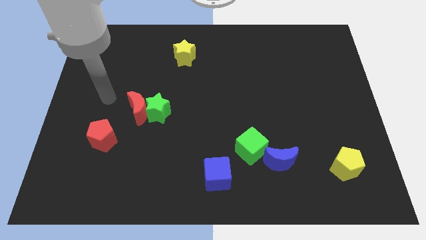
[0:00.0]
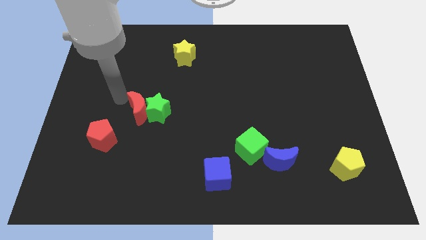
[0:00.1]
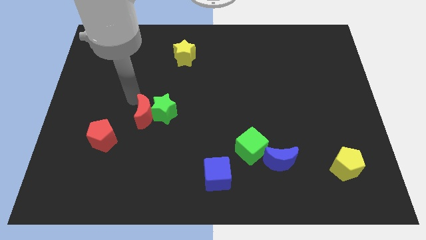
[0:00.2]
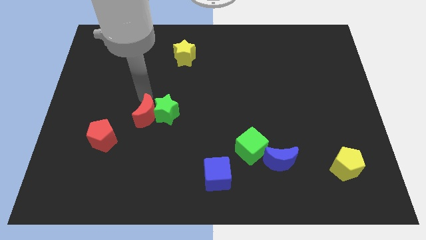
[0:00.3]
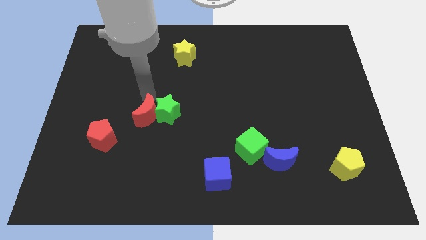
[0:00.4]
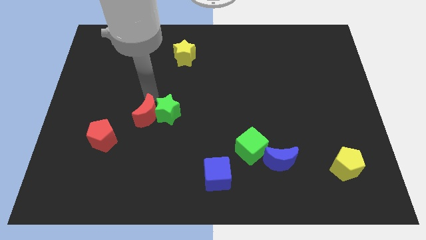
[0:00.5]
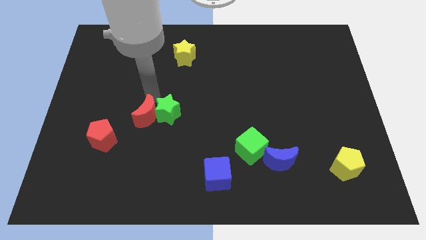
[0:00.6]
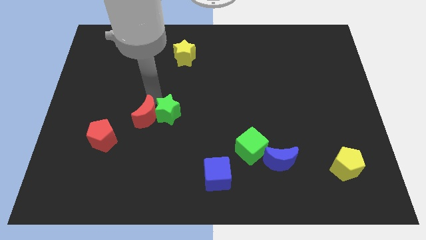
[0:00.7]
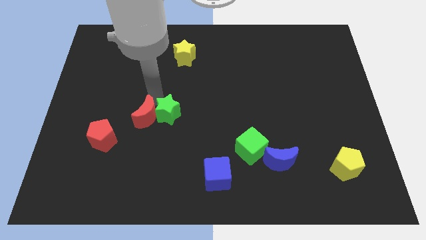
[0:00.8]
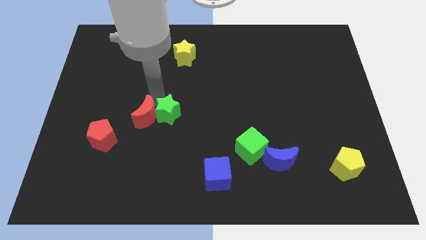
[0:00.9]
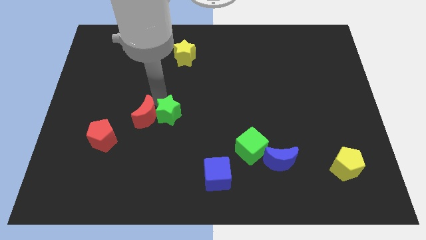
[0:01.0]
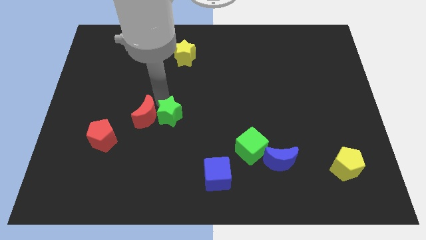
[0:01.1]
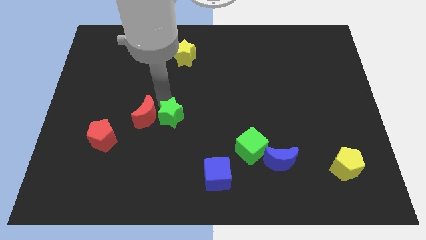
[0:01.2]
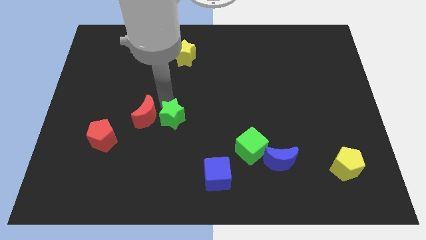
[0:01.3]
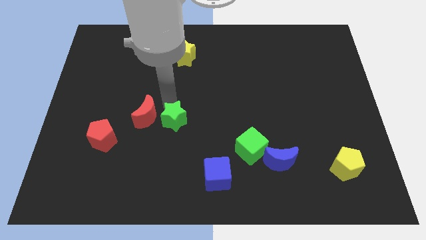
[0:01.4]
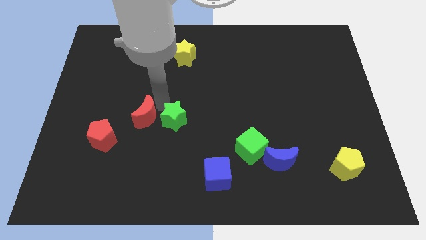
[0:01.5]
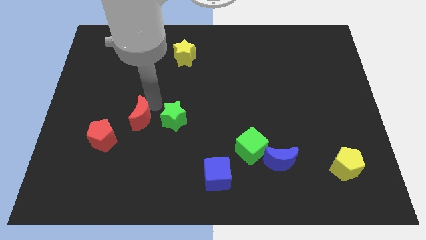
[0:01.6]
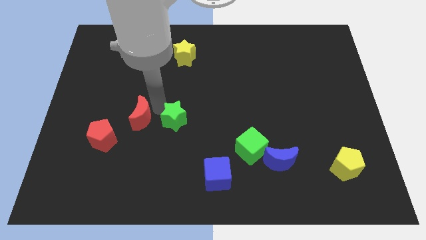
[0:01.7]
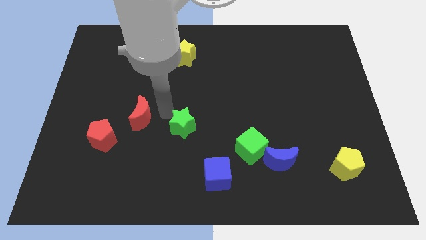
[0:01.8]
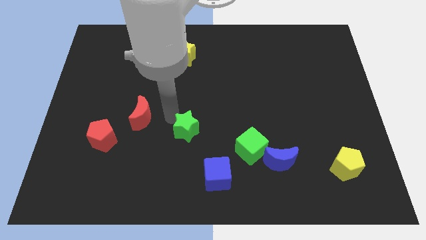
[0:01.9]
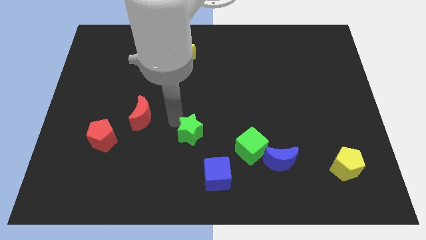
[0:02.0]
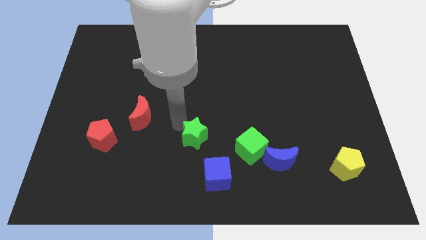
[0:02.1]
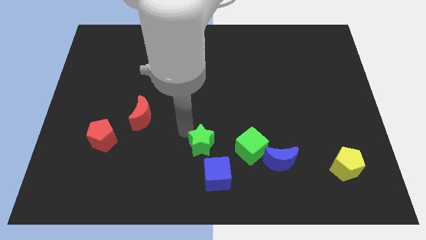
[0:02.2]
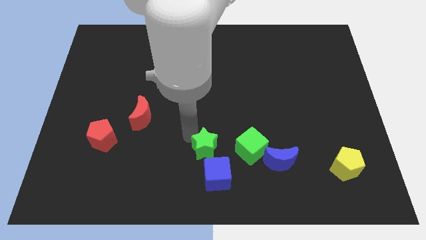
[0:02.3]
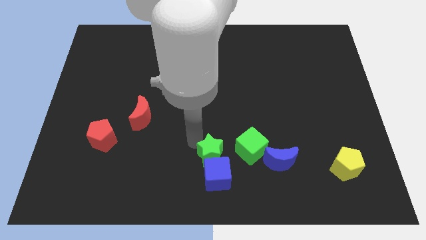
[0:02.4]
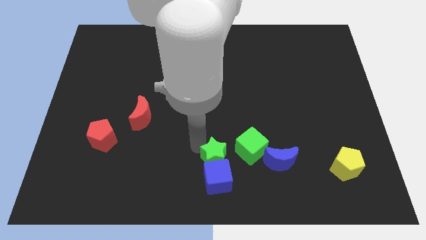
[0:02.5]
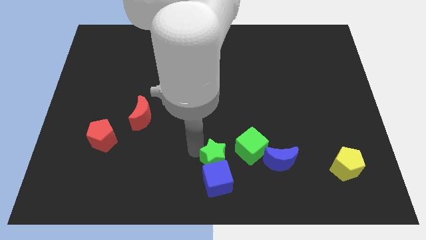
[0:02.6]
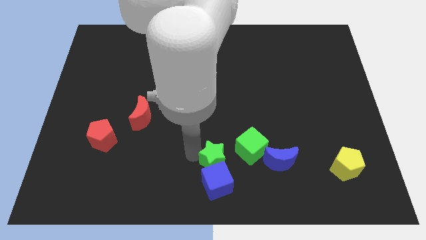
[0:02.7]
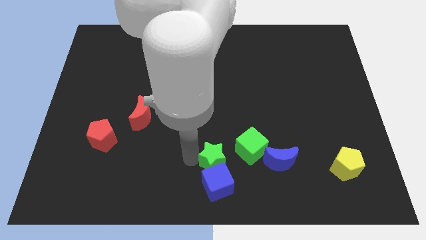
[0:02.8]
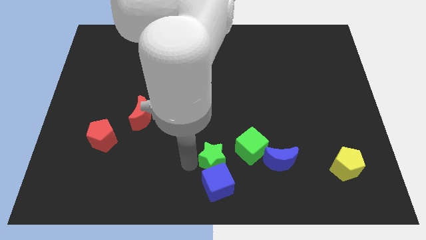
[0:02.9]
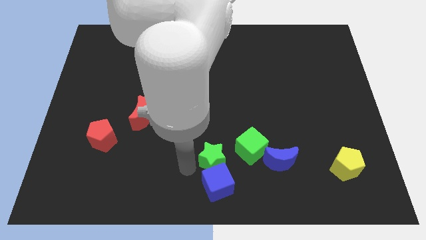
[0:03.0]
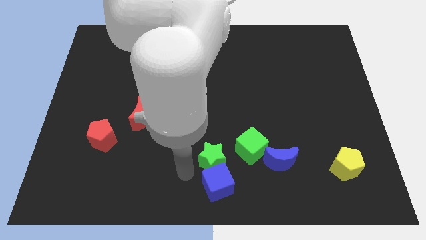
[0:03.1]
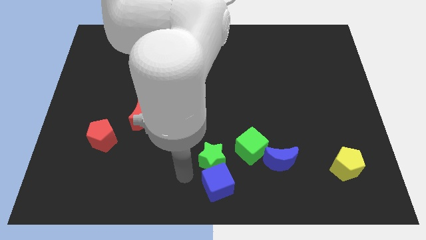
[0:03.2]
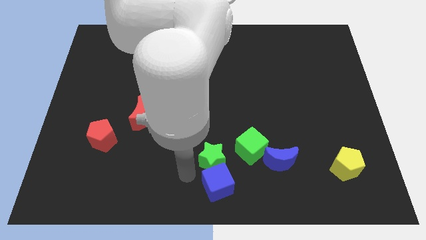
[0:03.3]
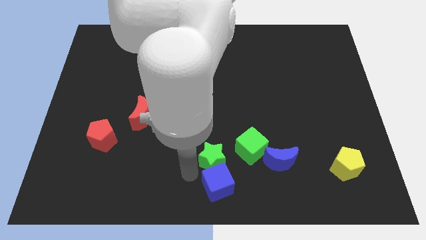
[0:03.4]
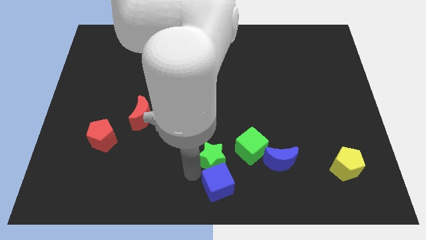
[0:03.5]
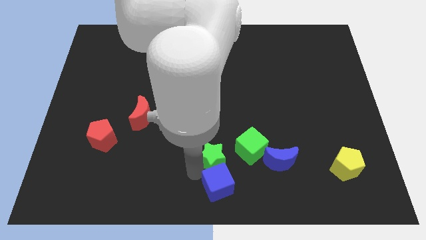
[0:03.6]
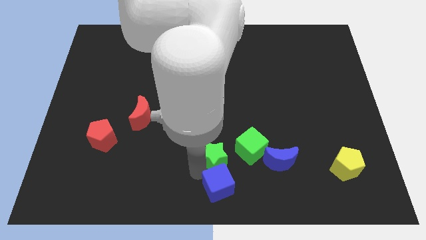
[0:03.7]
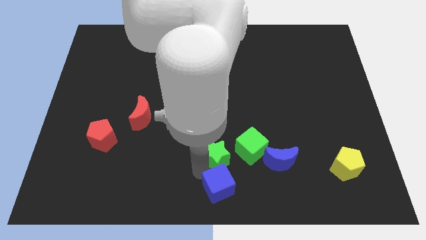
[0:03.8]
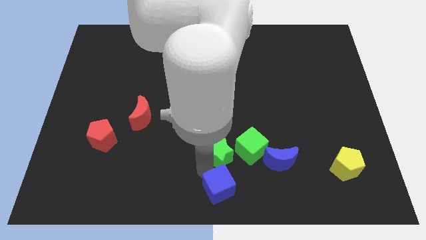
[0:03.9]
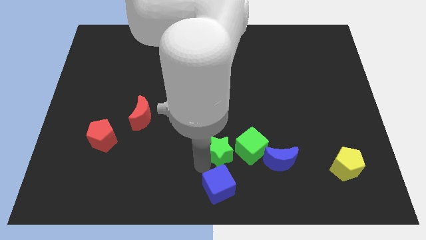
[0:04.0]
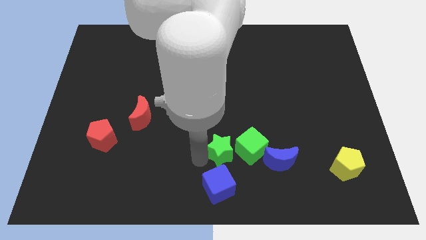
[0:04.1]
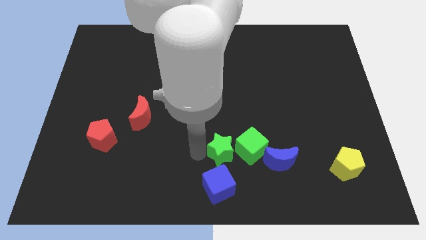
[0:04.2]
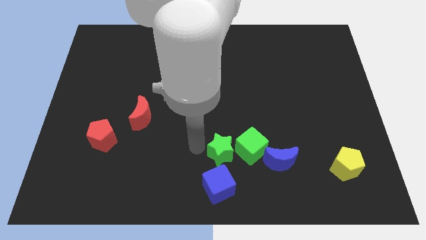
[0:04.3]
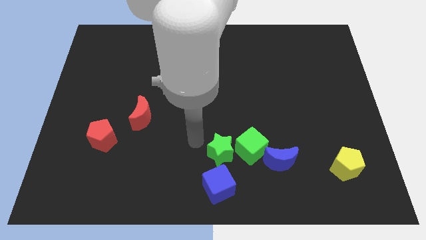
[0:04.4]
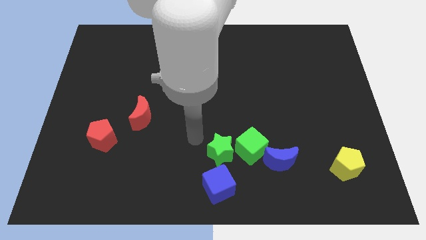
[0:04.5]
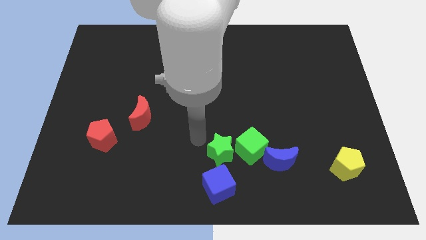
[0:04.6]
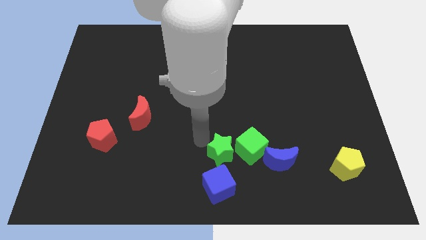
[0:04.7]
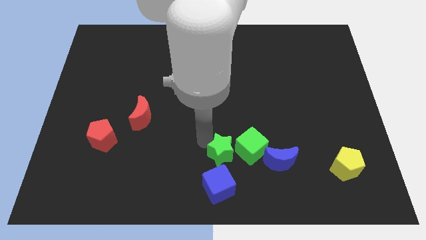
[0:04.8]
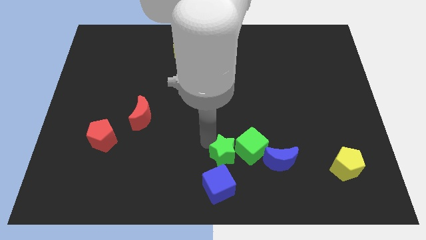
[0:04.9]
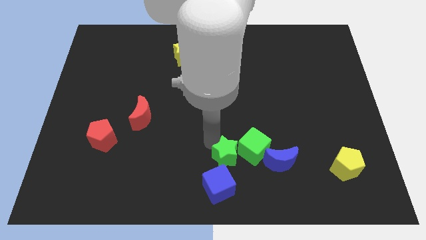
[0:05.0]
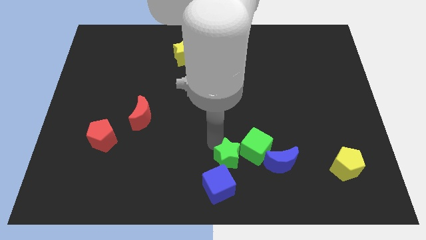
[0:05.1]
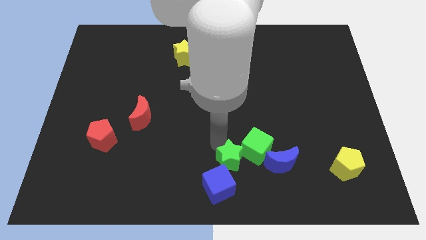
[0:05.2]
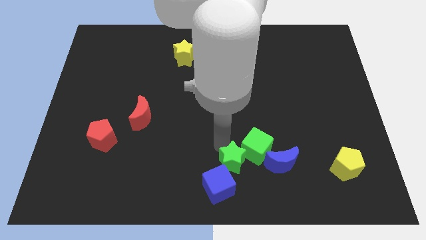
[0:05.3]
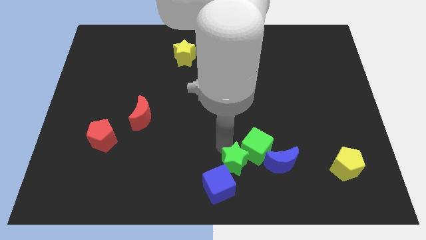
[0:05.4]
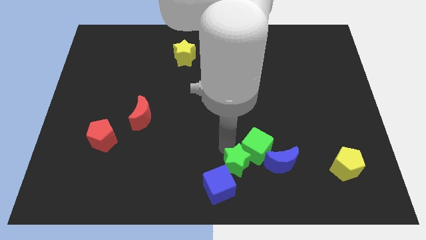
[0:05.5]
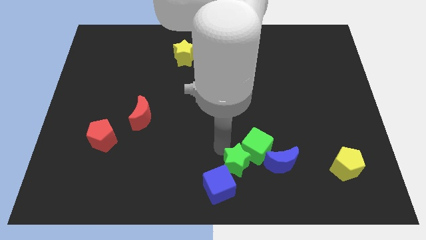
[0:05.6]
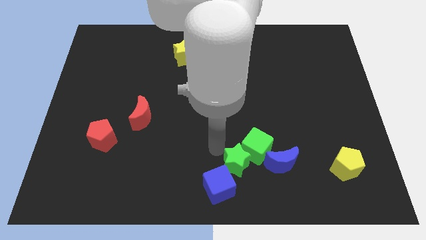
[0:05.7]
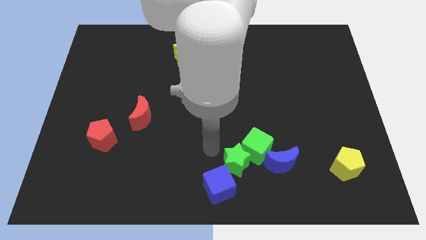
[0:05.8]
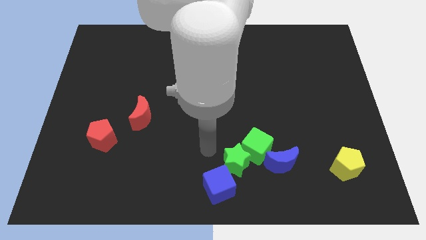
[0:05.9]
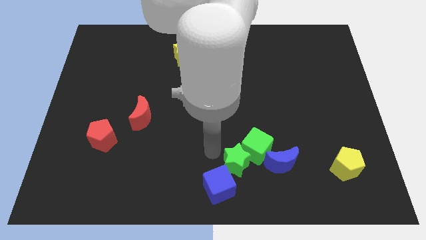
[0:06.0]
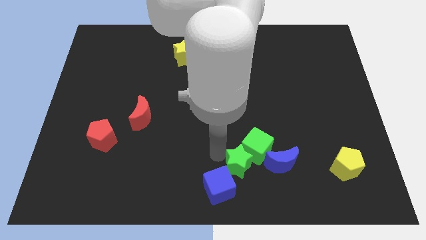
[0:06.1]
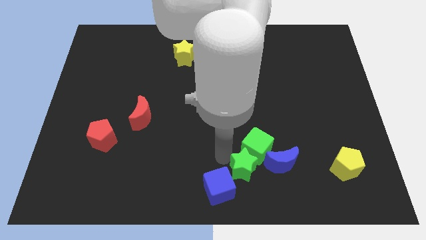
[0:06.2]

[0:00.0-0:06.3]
put the green star just right of the blue cube

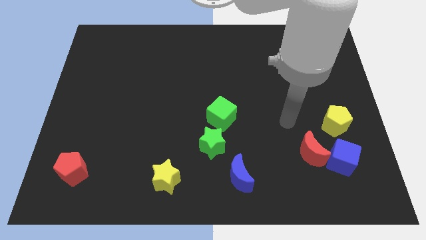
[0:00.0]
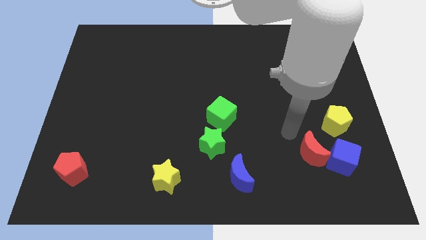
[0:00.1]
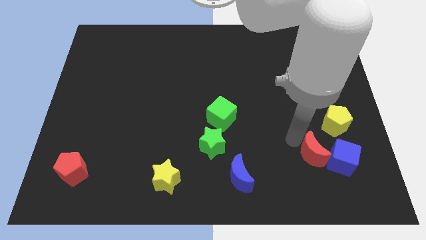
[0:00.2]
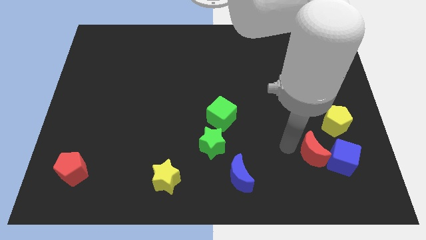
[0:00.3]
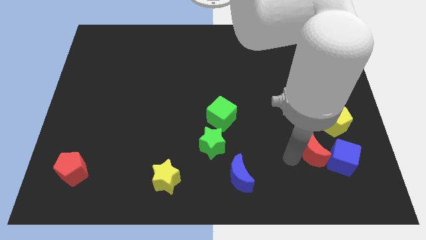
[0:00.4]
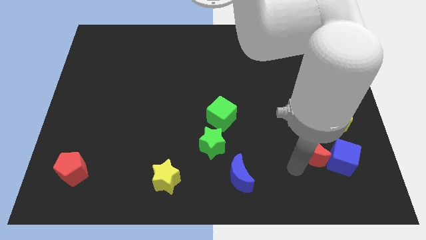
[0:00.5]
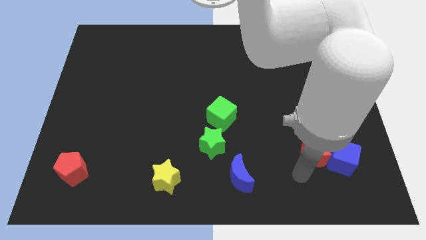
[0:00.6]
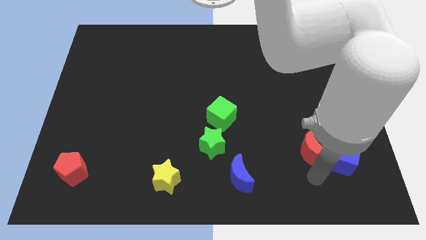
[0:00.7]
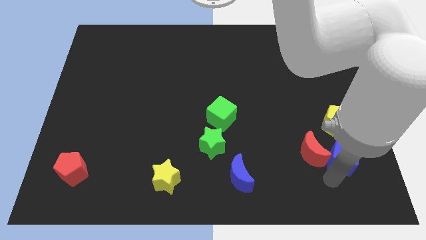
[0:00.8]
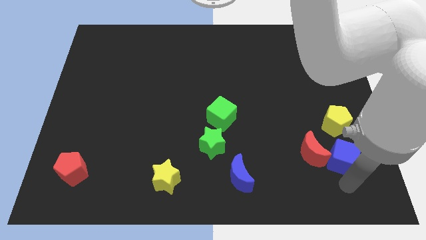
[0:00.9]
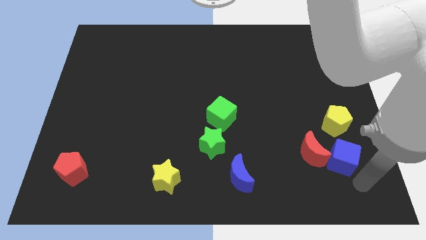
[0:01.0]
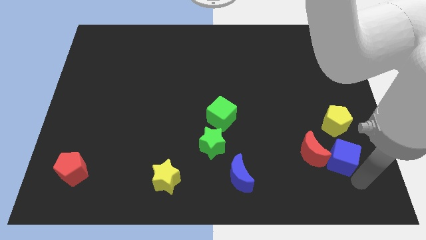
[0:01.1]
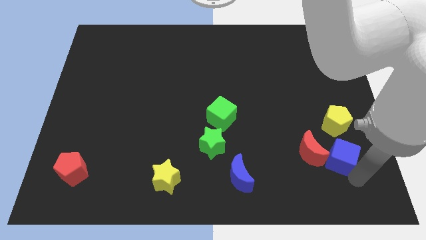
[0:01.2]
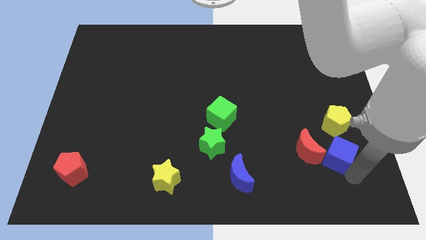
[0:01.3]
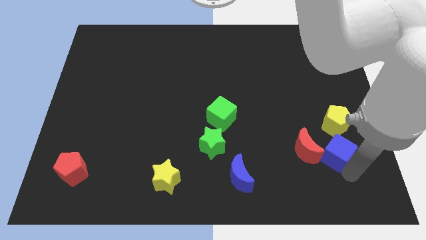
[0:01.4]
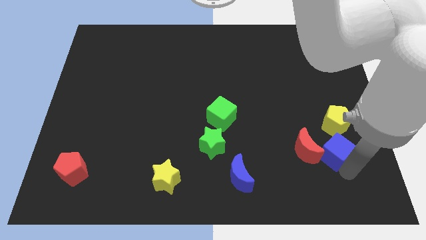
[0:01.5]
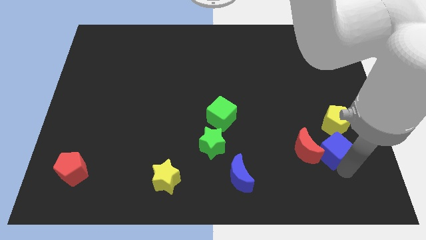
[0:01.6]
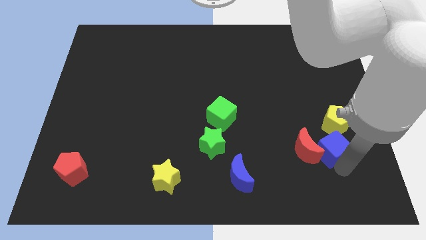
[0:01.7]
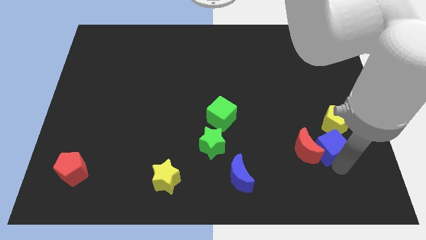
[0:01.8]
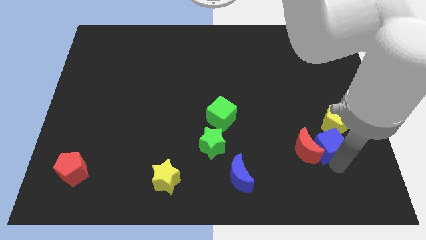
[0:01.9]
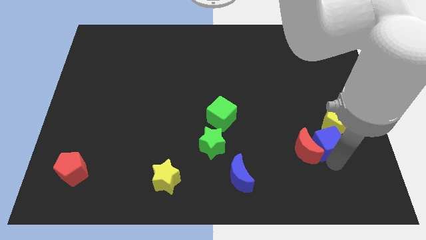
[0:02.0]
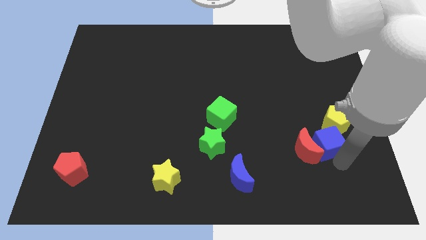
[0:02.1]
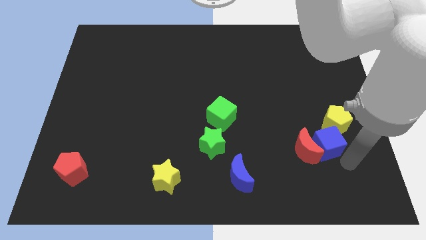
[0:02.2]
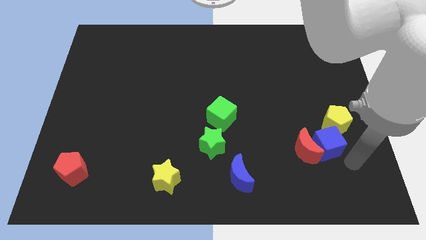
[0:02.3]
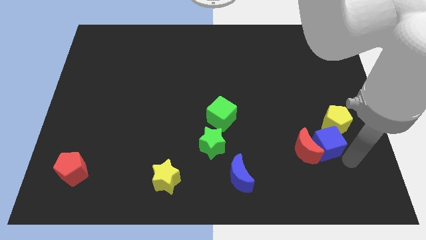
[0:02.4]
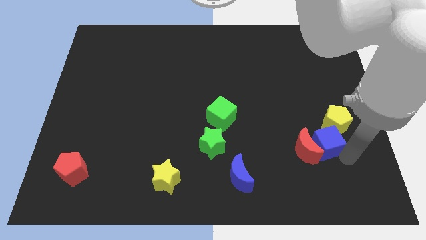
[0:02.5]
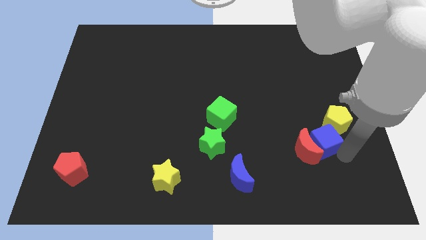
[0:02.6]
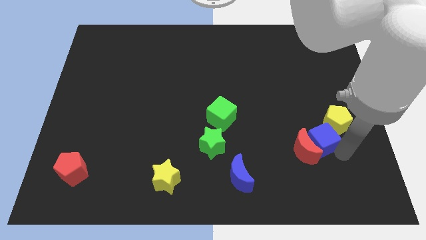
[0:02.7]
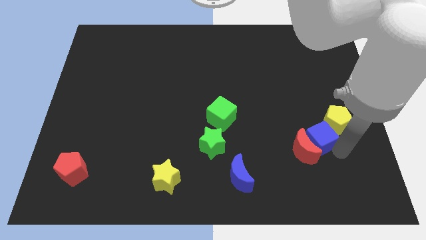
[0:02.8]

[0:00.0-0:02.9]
move the blue cube to the left side of the yellow pentagon
